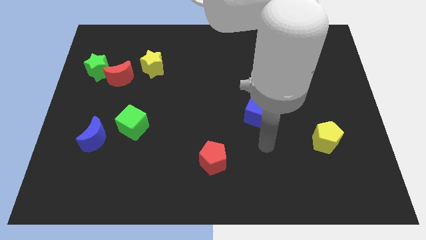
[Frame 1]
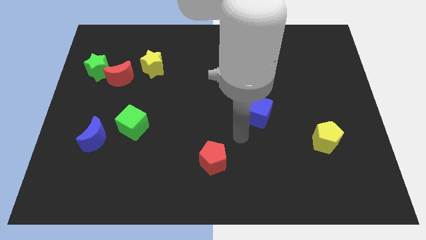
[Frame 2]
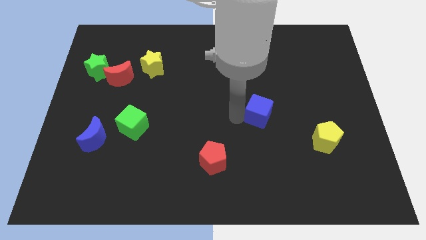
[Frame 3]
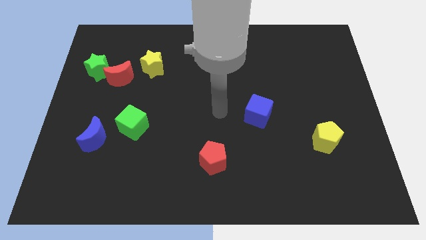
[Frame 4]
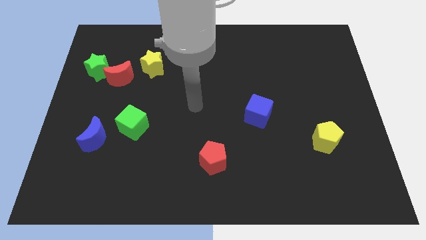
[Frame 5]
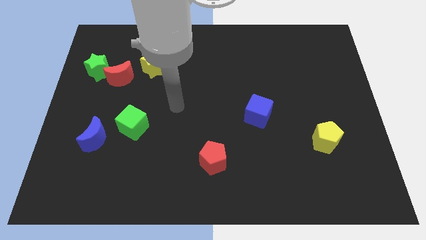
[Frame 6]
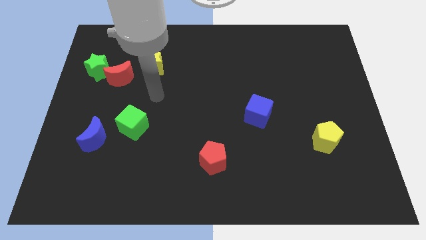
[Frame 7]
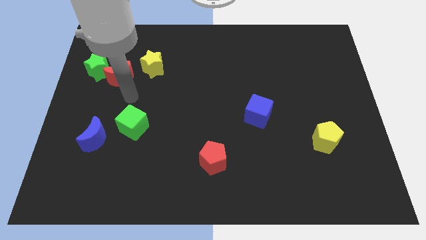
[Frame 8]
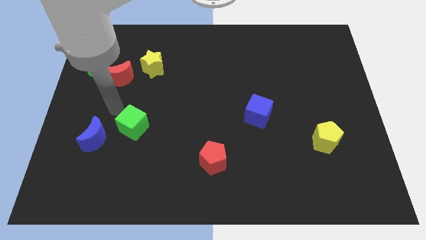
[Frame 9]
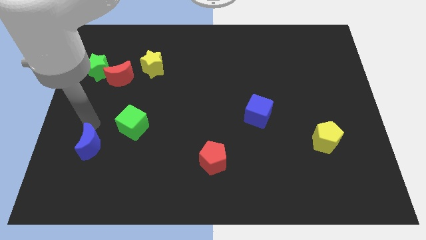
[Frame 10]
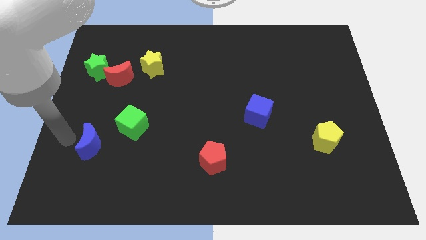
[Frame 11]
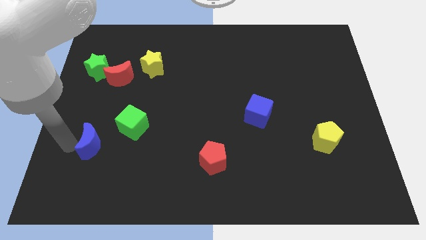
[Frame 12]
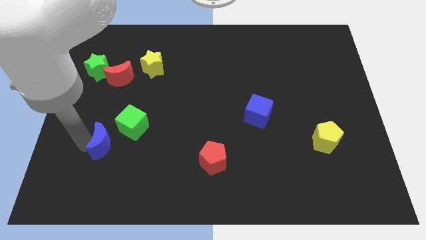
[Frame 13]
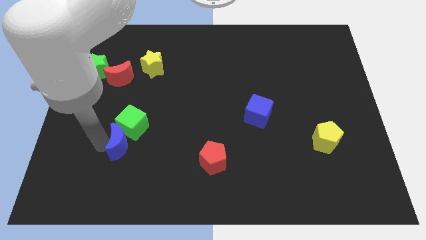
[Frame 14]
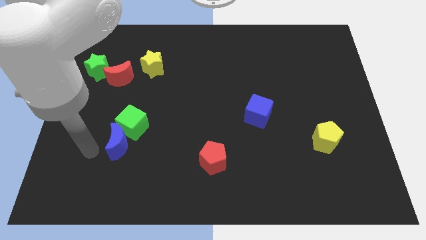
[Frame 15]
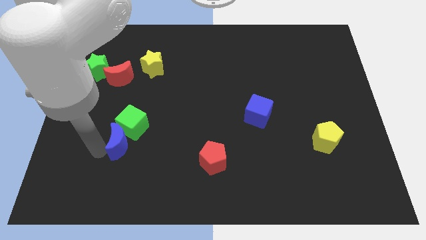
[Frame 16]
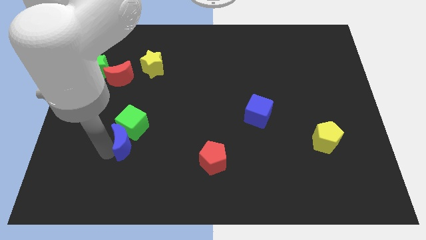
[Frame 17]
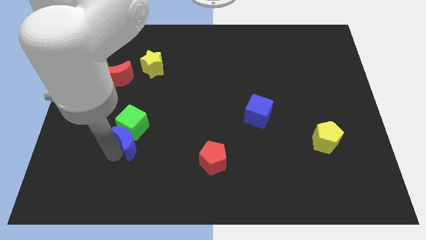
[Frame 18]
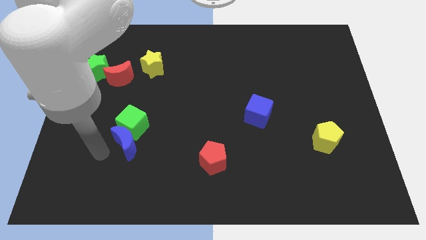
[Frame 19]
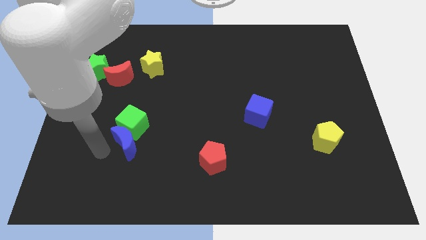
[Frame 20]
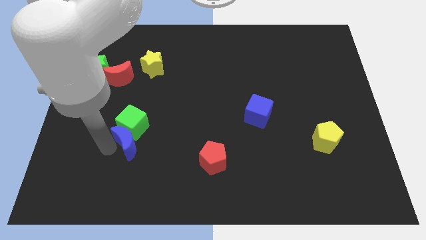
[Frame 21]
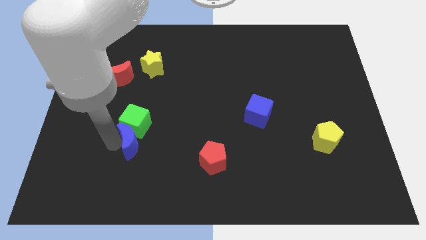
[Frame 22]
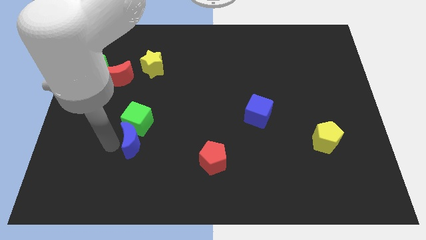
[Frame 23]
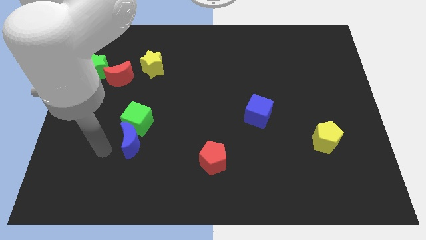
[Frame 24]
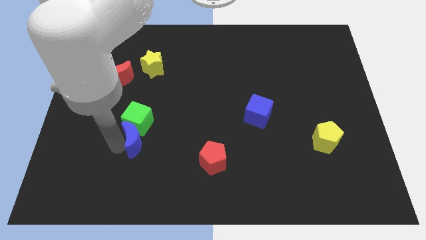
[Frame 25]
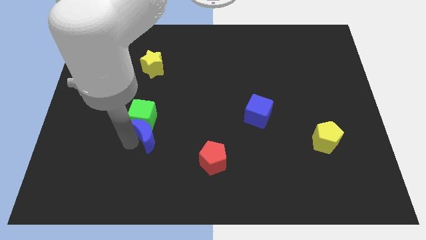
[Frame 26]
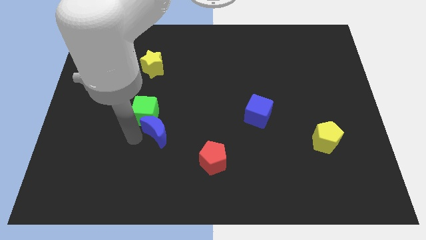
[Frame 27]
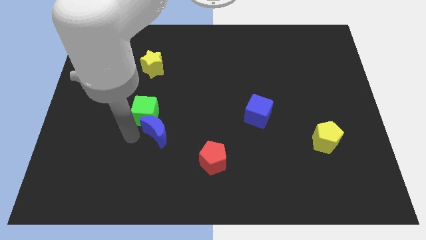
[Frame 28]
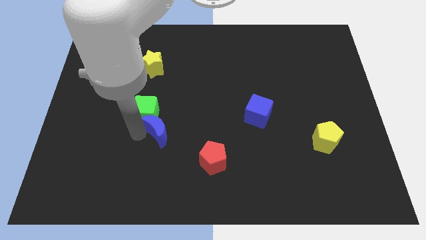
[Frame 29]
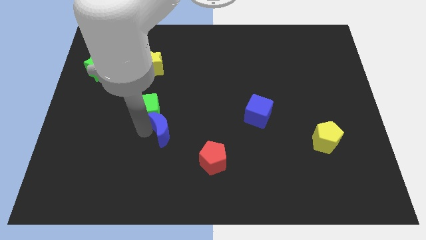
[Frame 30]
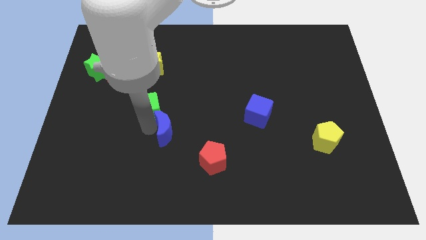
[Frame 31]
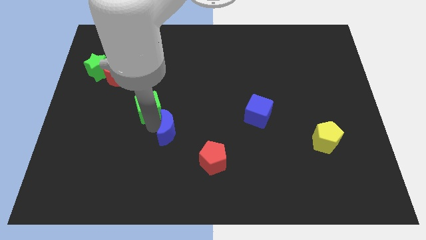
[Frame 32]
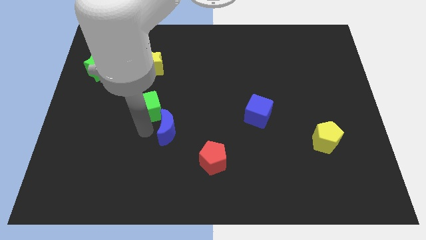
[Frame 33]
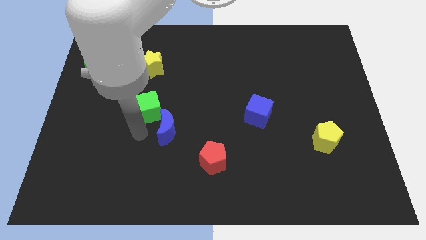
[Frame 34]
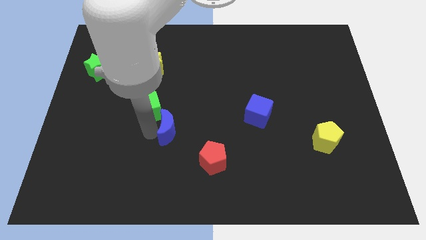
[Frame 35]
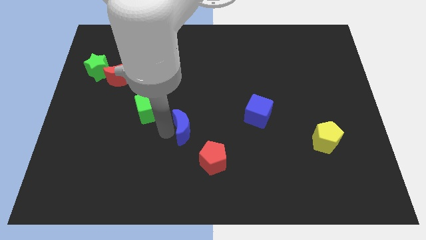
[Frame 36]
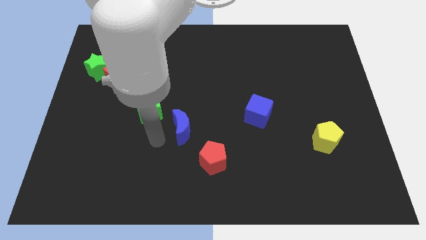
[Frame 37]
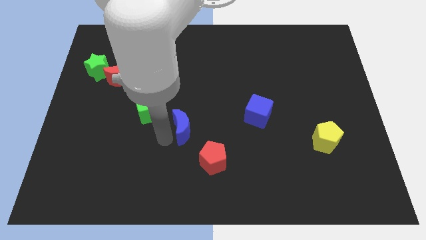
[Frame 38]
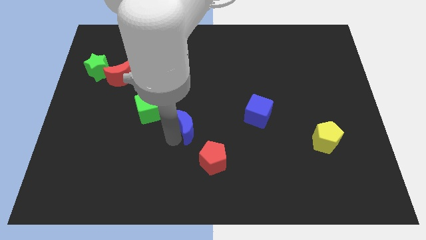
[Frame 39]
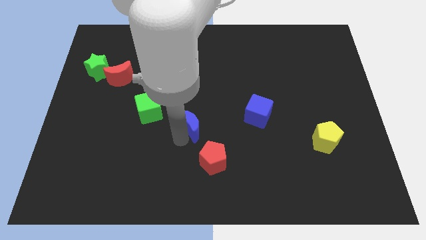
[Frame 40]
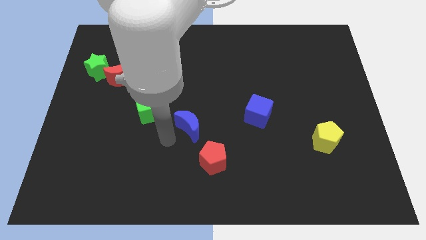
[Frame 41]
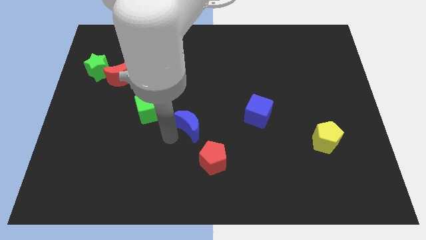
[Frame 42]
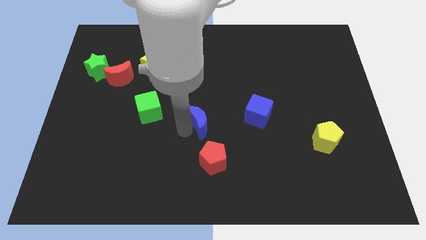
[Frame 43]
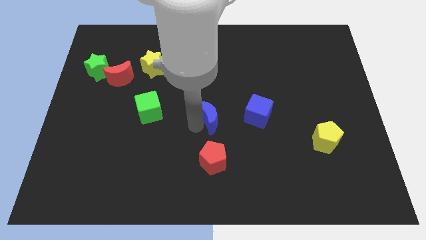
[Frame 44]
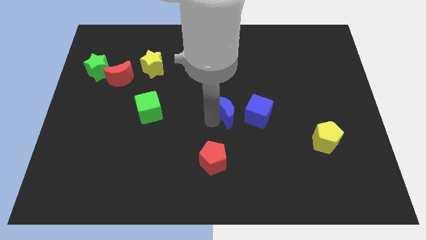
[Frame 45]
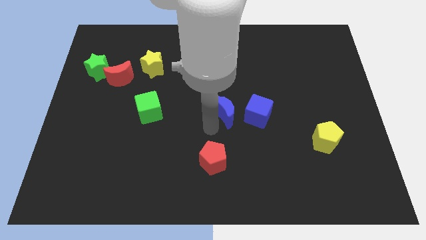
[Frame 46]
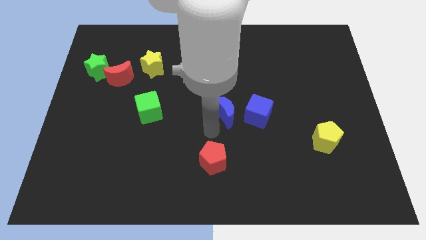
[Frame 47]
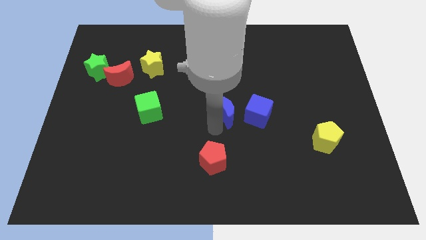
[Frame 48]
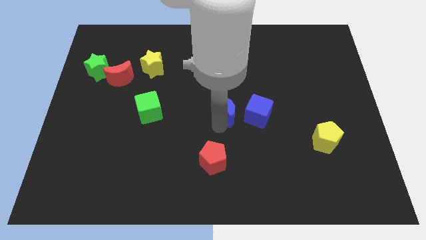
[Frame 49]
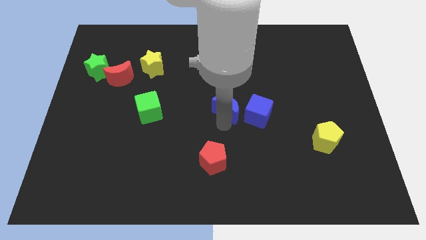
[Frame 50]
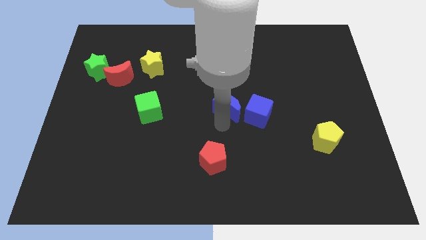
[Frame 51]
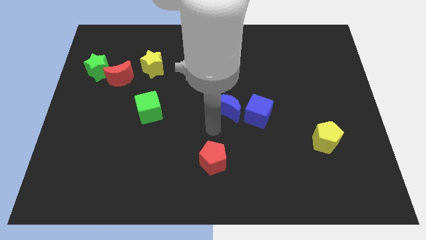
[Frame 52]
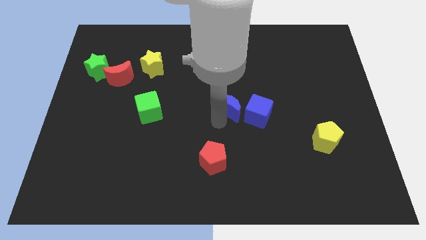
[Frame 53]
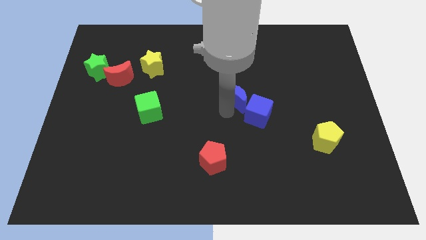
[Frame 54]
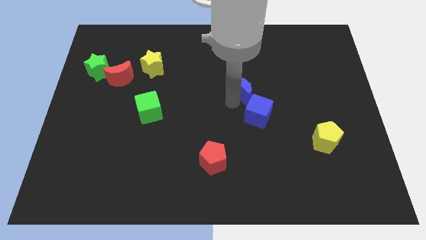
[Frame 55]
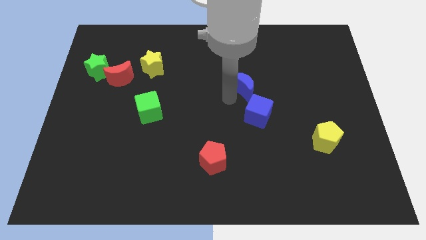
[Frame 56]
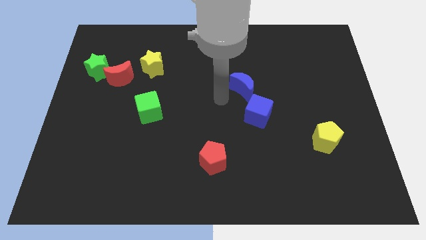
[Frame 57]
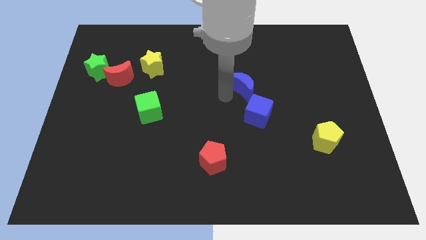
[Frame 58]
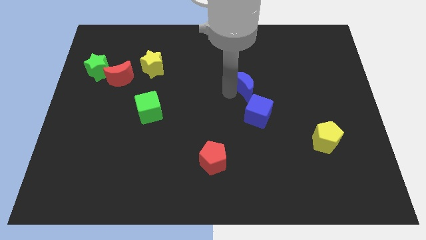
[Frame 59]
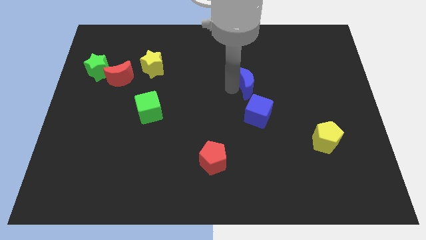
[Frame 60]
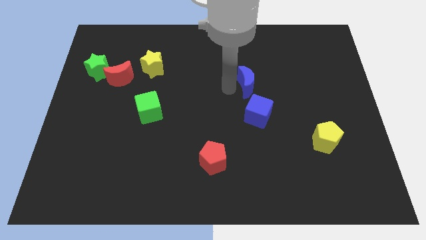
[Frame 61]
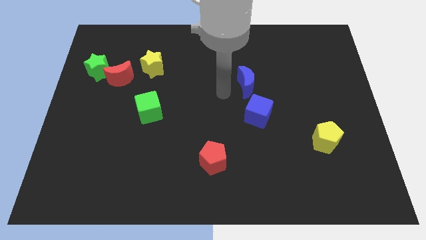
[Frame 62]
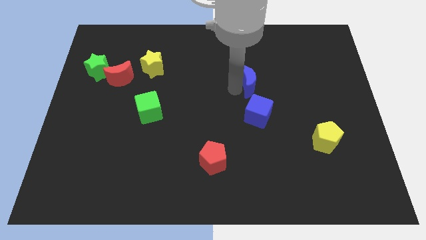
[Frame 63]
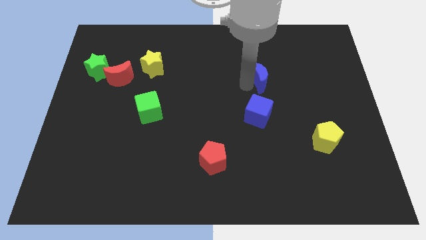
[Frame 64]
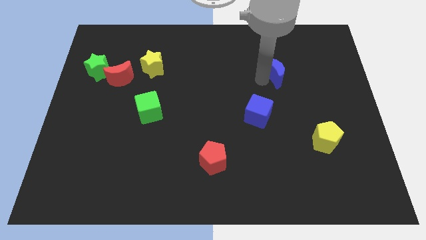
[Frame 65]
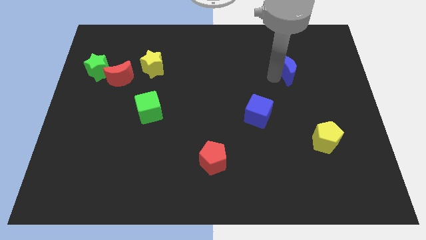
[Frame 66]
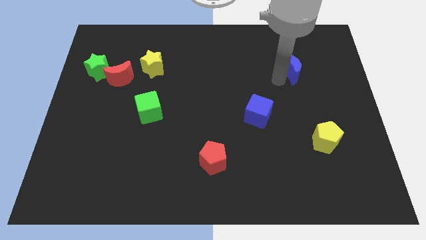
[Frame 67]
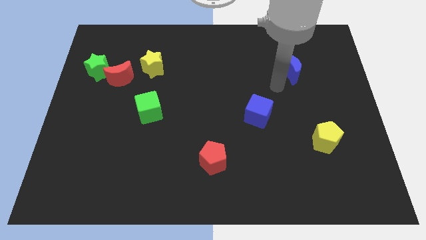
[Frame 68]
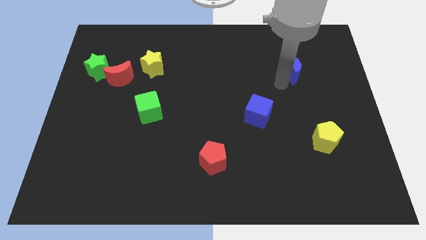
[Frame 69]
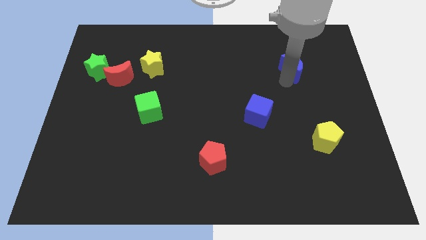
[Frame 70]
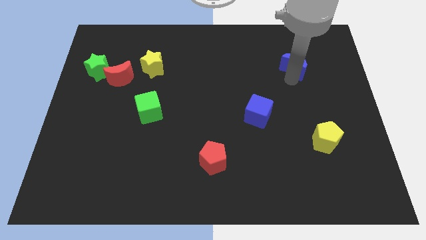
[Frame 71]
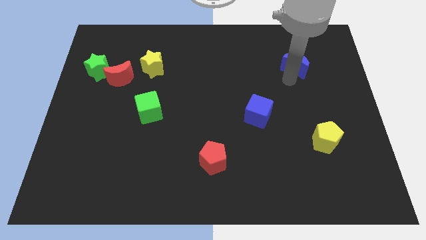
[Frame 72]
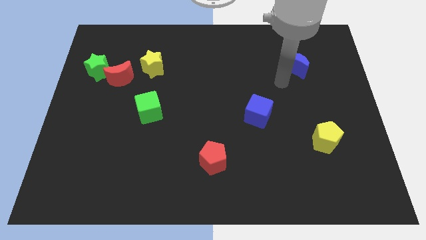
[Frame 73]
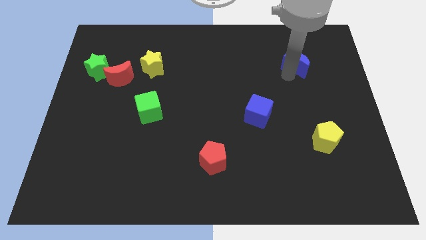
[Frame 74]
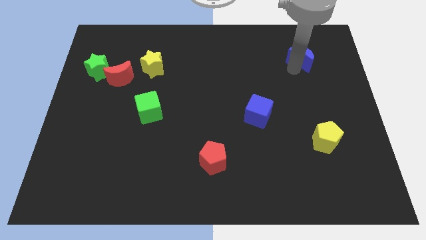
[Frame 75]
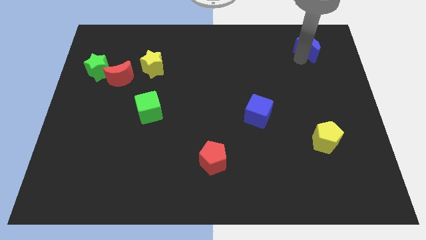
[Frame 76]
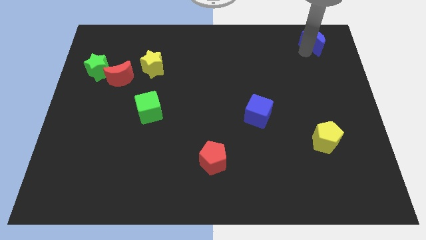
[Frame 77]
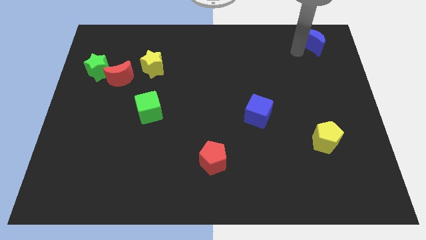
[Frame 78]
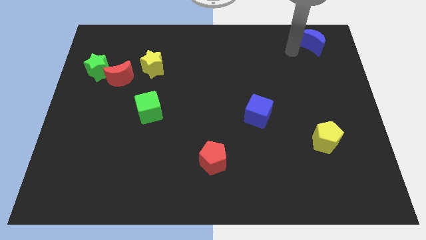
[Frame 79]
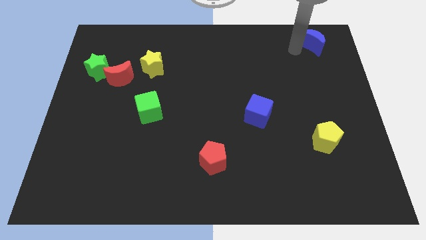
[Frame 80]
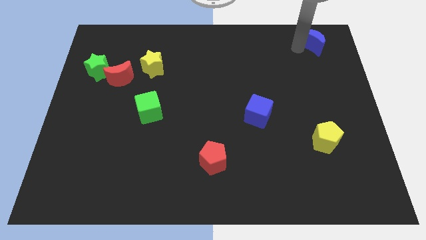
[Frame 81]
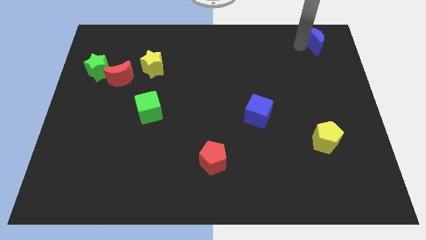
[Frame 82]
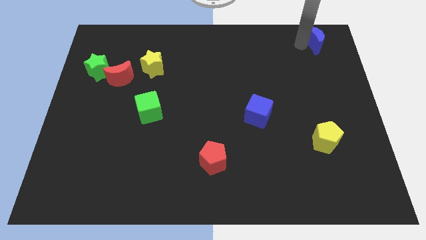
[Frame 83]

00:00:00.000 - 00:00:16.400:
push the blue moon to the top right
